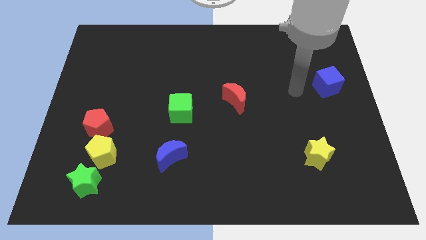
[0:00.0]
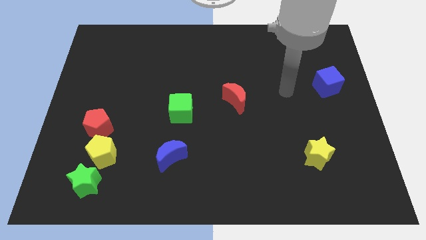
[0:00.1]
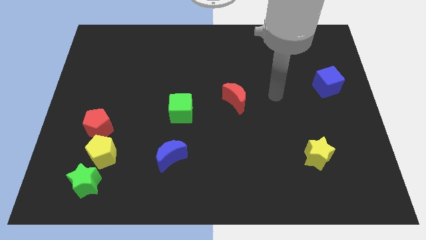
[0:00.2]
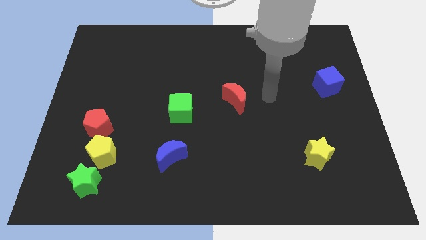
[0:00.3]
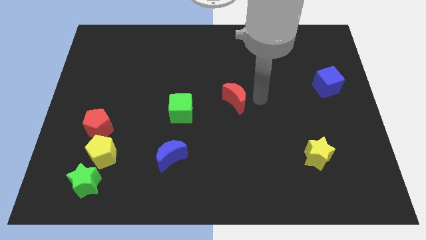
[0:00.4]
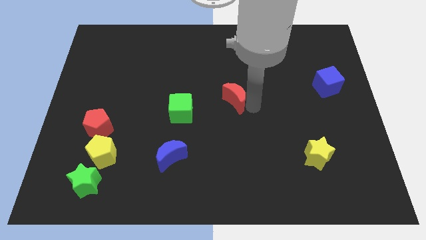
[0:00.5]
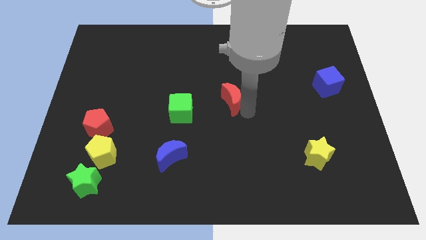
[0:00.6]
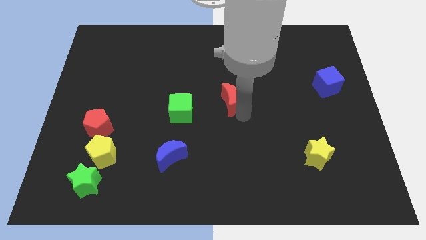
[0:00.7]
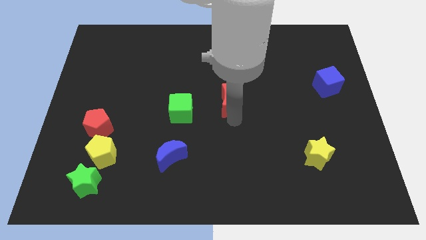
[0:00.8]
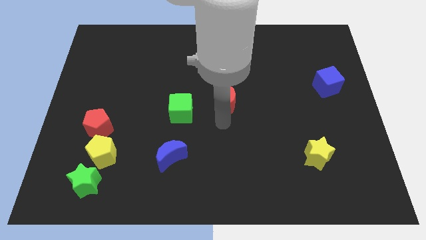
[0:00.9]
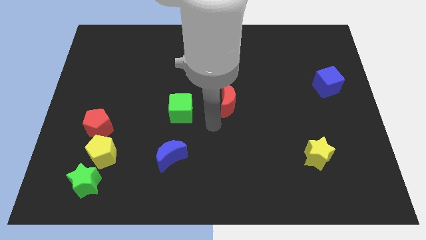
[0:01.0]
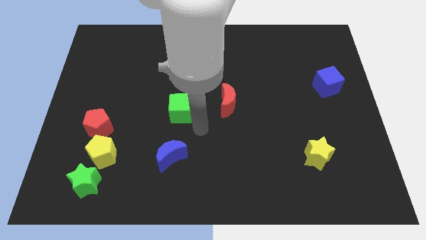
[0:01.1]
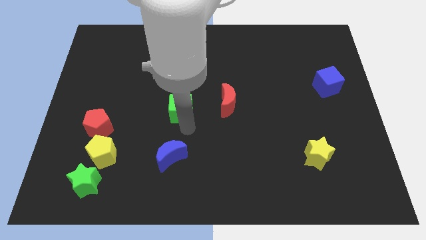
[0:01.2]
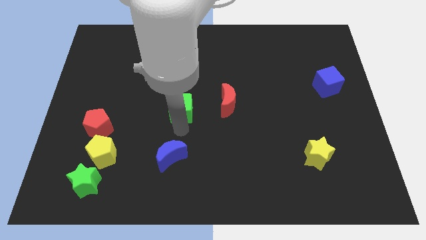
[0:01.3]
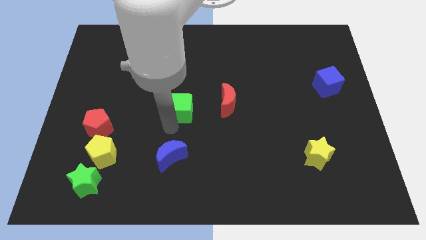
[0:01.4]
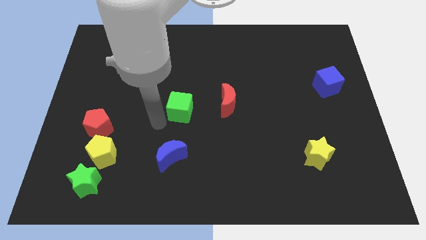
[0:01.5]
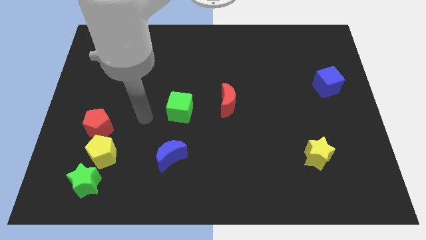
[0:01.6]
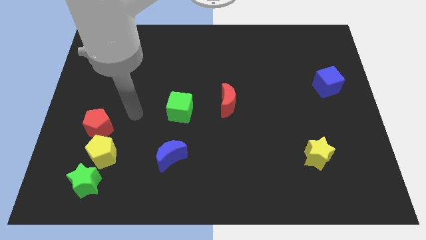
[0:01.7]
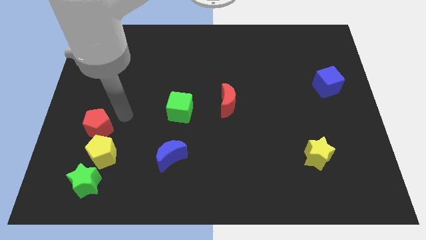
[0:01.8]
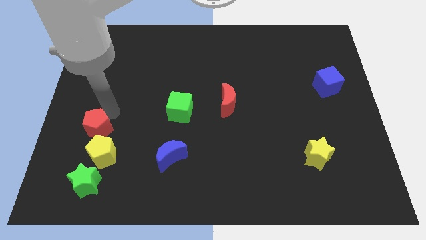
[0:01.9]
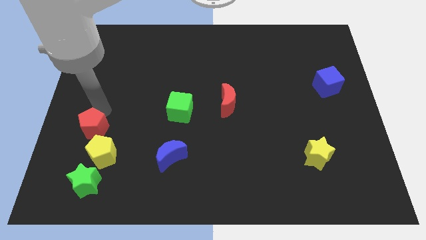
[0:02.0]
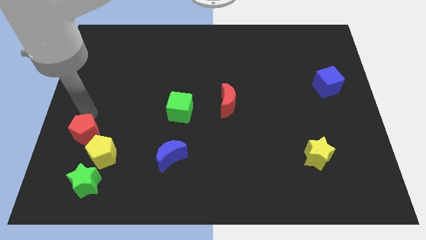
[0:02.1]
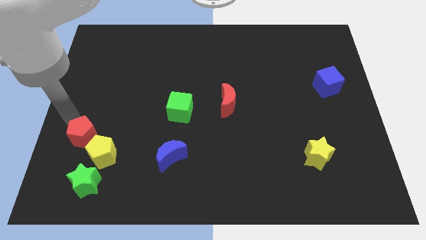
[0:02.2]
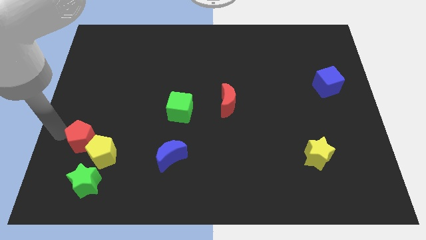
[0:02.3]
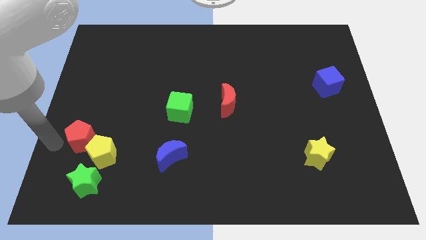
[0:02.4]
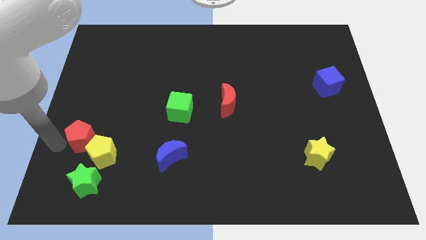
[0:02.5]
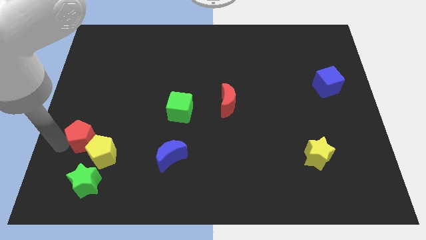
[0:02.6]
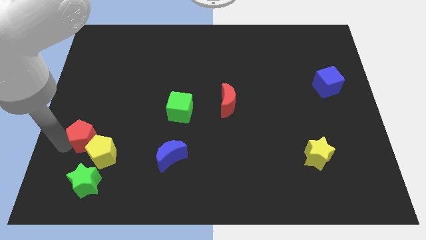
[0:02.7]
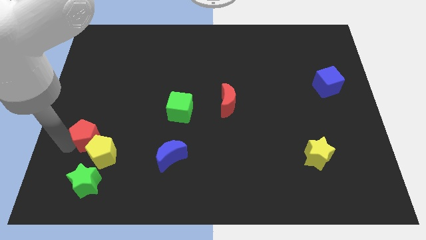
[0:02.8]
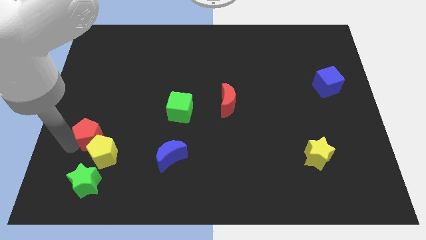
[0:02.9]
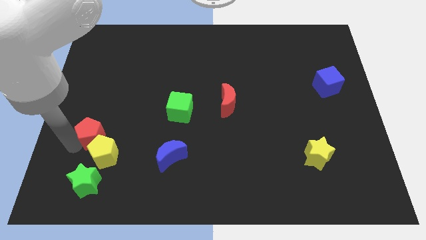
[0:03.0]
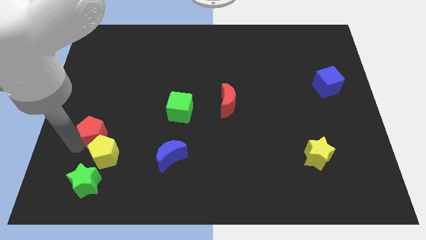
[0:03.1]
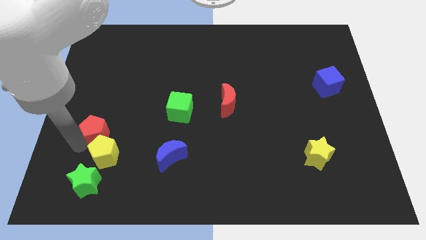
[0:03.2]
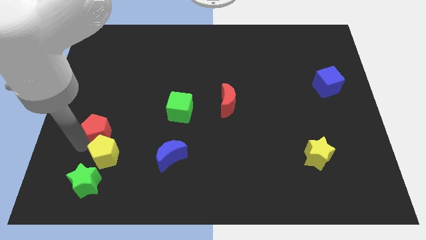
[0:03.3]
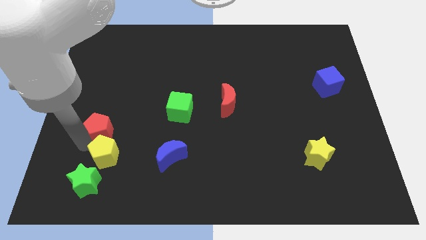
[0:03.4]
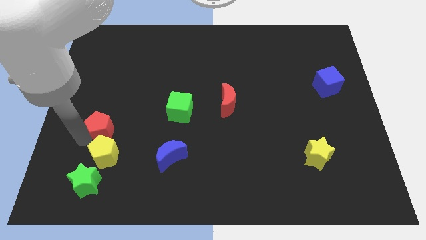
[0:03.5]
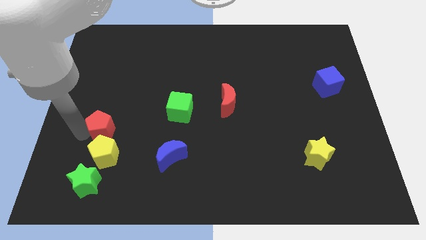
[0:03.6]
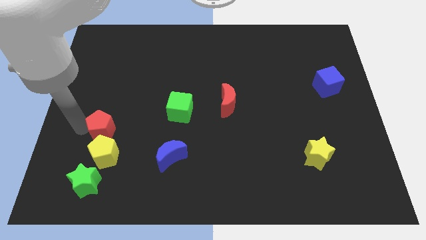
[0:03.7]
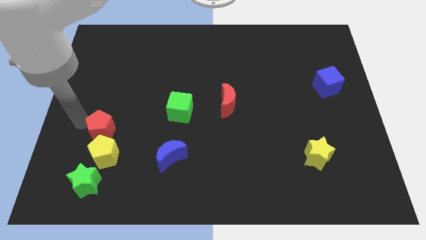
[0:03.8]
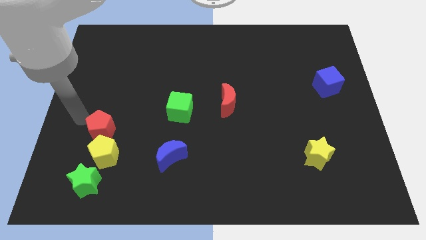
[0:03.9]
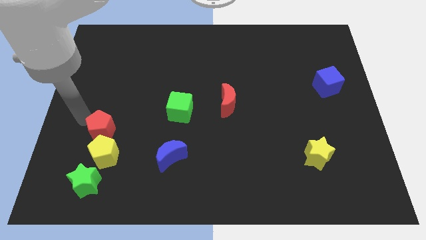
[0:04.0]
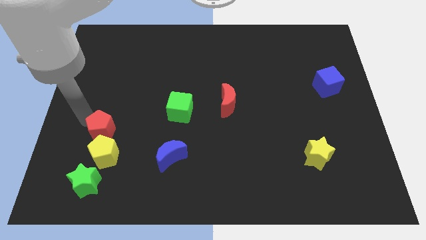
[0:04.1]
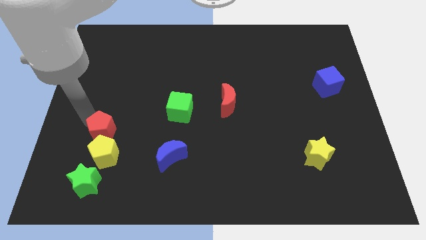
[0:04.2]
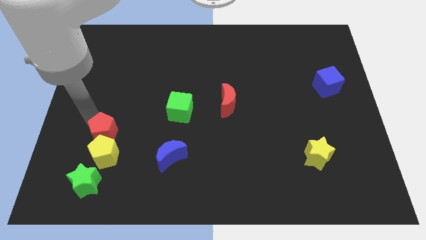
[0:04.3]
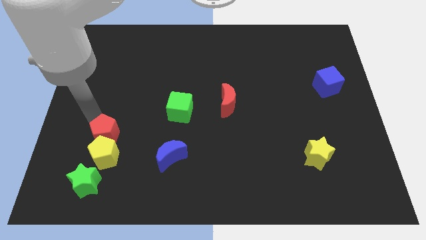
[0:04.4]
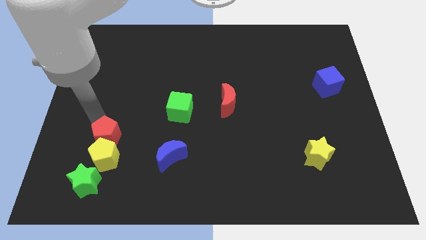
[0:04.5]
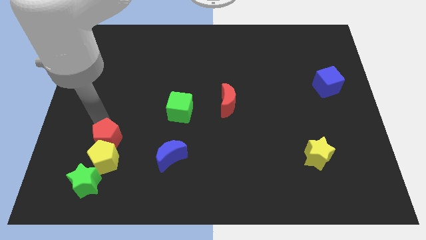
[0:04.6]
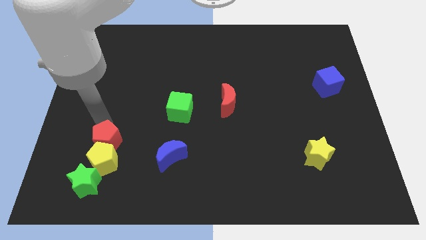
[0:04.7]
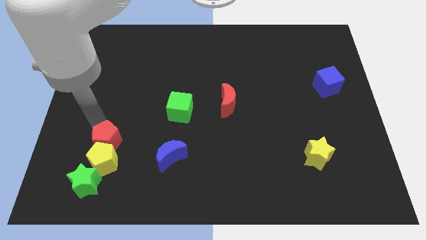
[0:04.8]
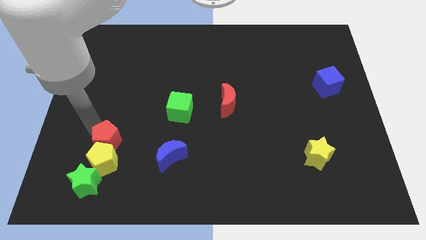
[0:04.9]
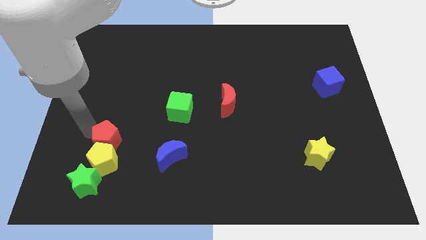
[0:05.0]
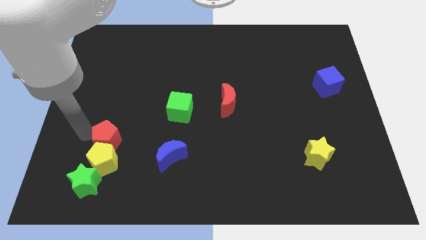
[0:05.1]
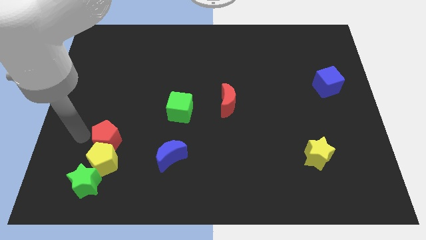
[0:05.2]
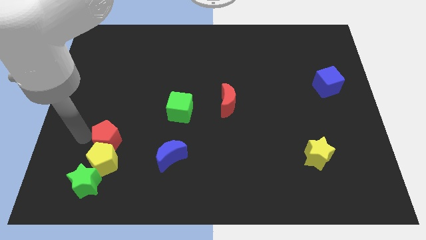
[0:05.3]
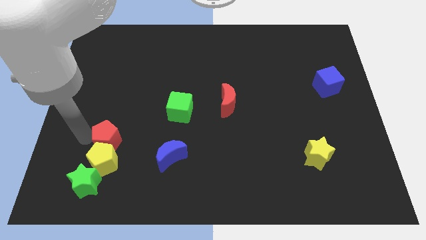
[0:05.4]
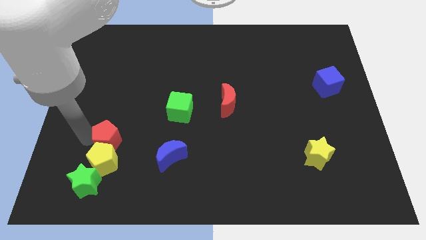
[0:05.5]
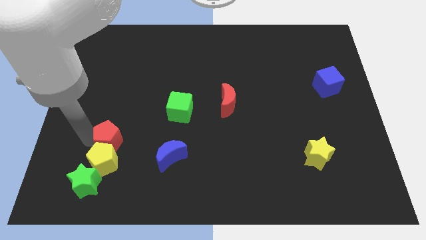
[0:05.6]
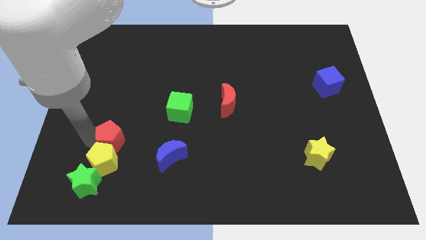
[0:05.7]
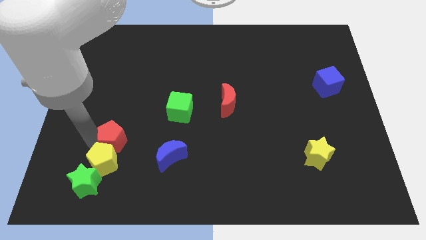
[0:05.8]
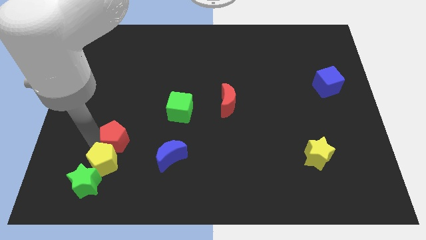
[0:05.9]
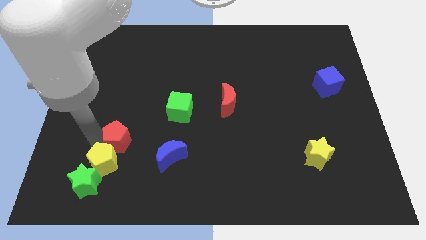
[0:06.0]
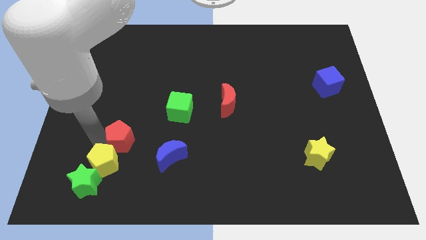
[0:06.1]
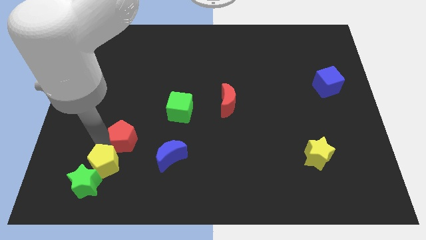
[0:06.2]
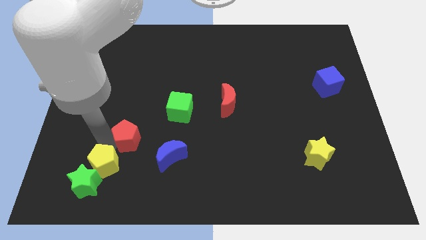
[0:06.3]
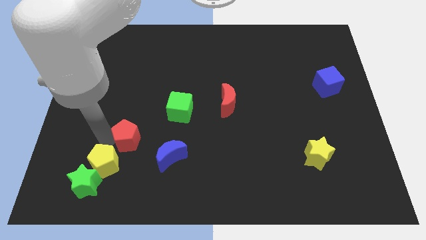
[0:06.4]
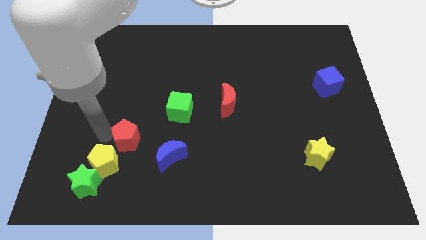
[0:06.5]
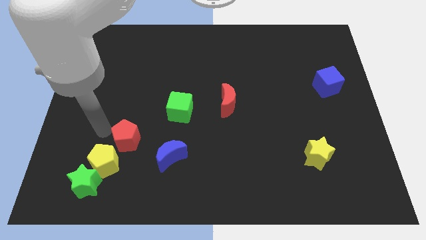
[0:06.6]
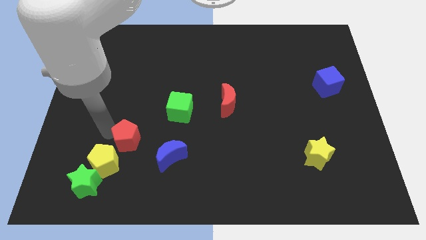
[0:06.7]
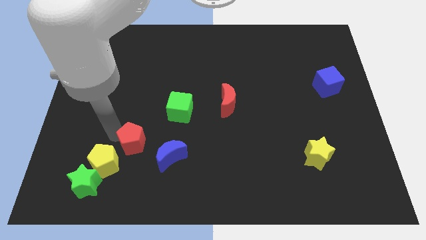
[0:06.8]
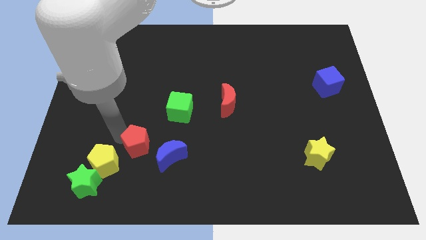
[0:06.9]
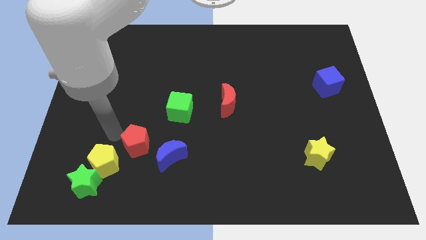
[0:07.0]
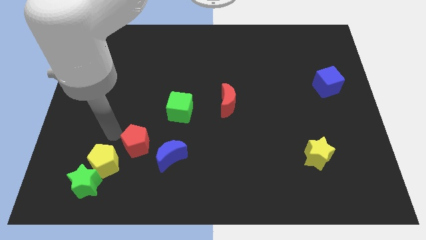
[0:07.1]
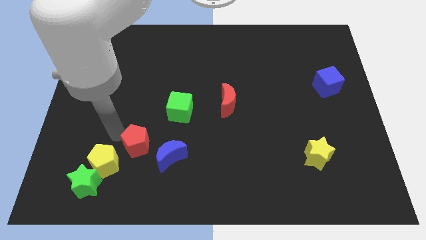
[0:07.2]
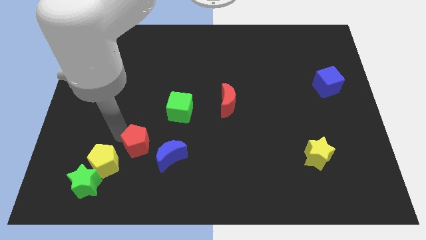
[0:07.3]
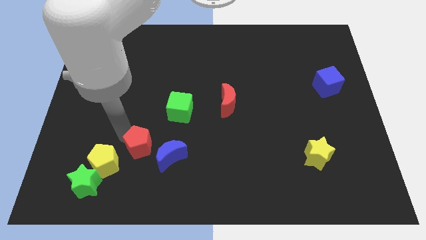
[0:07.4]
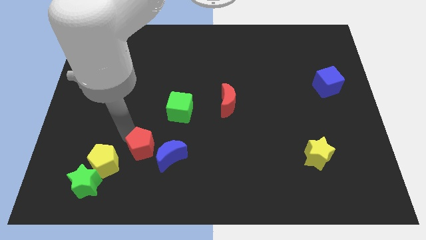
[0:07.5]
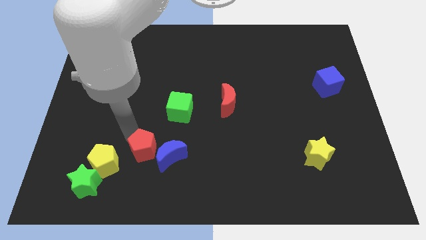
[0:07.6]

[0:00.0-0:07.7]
put the red pentagon to the blue moon
